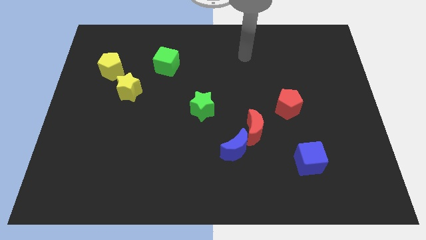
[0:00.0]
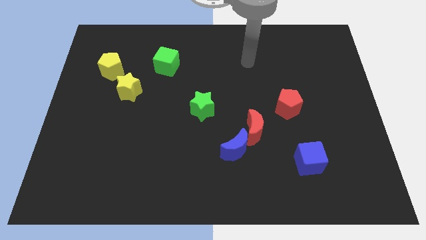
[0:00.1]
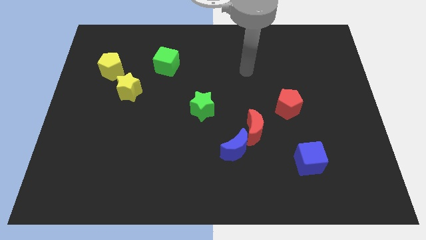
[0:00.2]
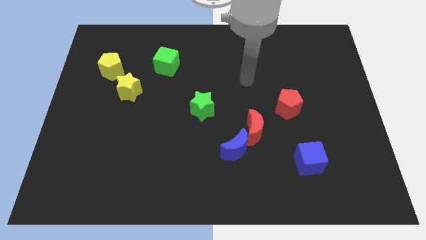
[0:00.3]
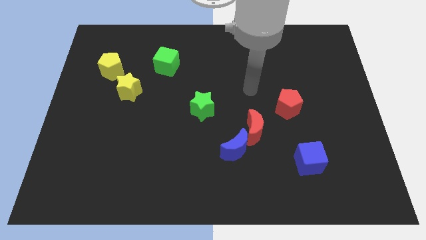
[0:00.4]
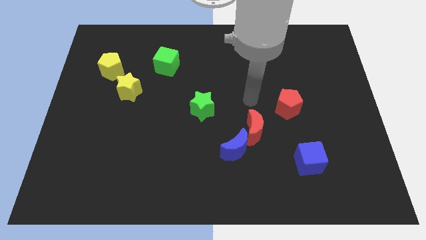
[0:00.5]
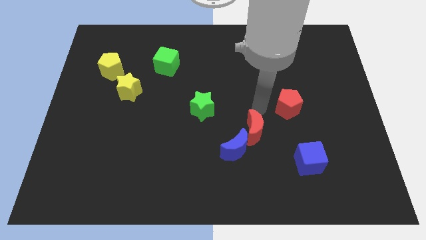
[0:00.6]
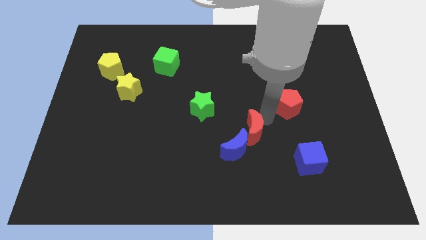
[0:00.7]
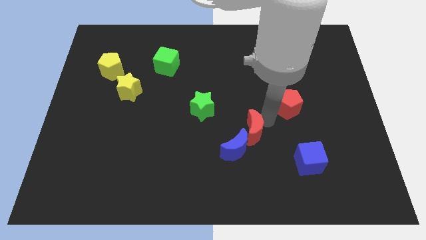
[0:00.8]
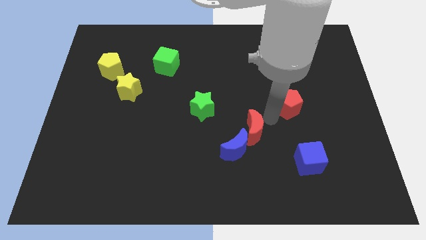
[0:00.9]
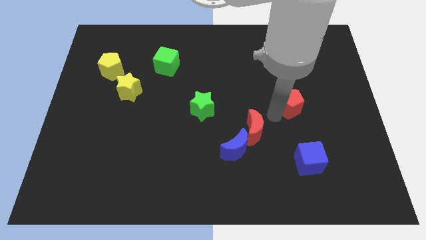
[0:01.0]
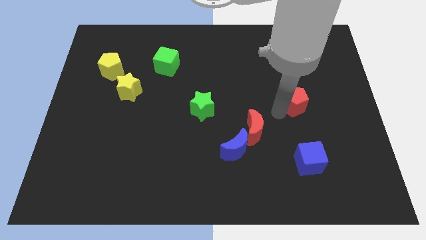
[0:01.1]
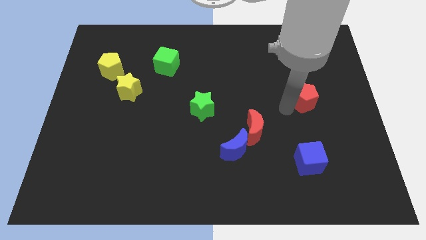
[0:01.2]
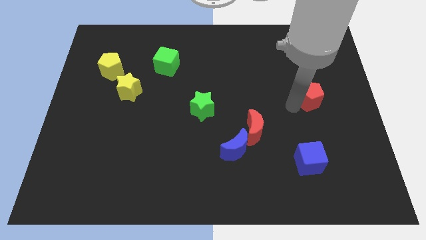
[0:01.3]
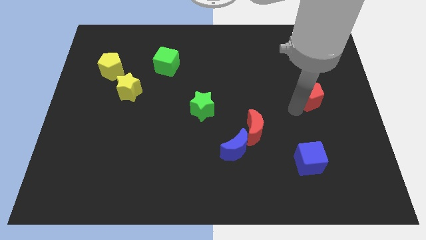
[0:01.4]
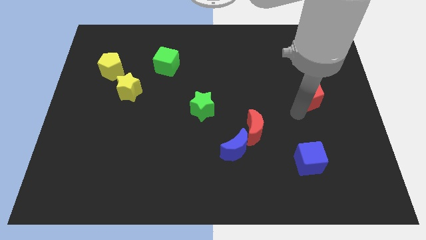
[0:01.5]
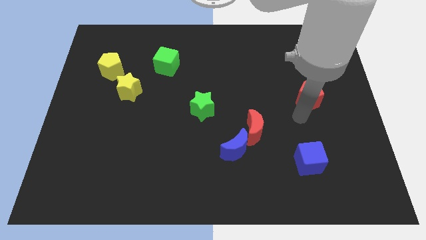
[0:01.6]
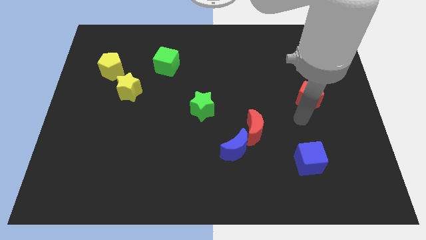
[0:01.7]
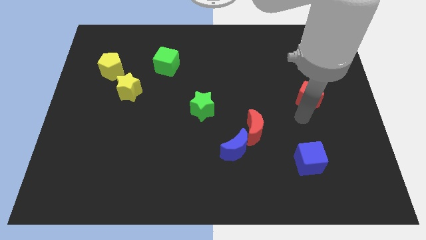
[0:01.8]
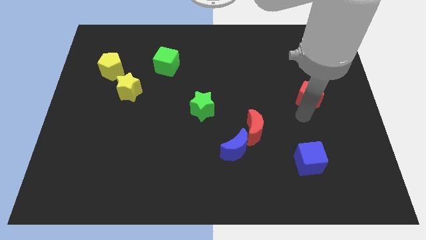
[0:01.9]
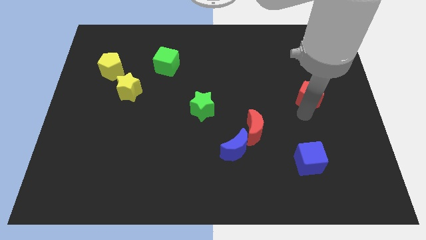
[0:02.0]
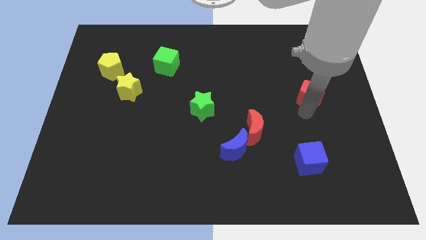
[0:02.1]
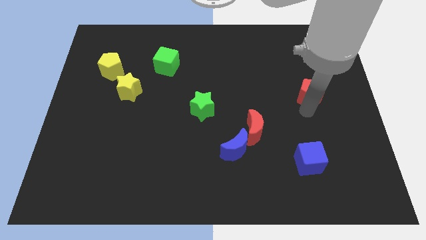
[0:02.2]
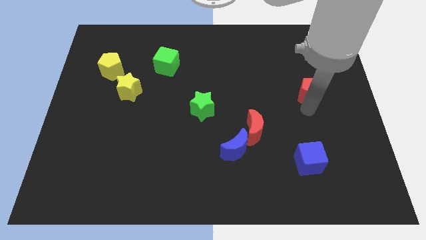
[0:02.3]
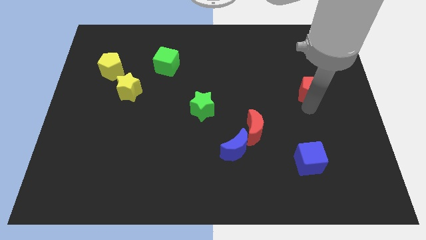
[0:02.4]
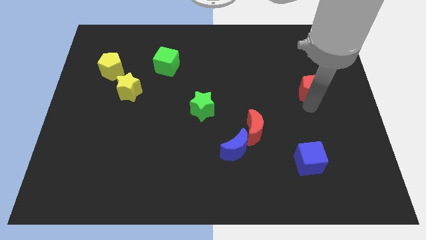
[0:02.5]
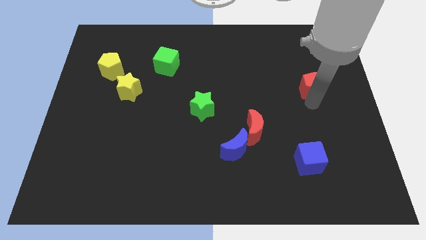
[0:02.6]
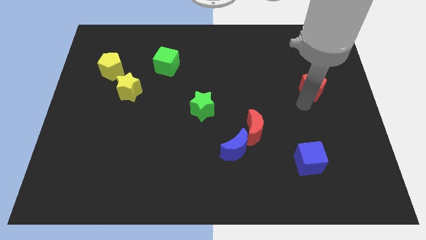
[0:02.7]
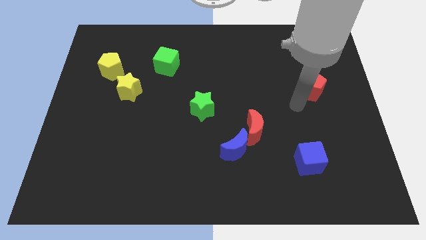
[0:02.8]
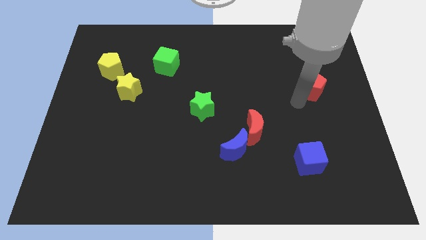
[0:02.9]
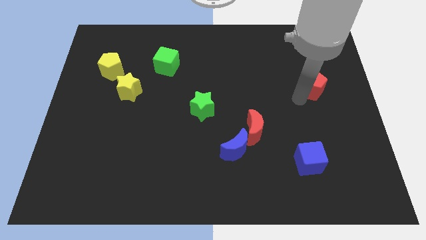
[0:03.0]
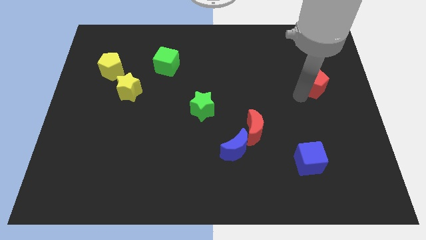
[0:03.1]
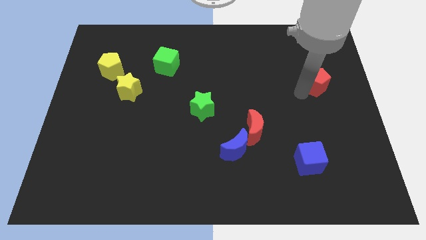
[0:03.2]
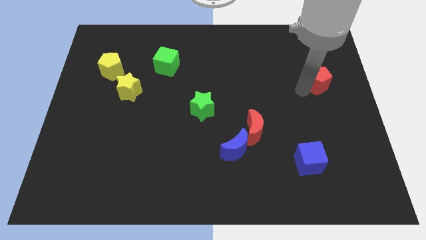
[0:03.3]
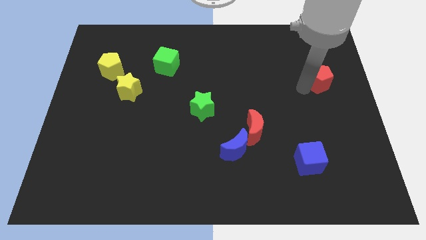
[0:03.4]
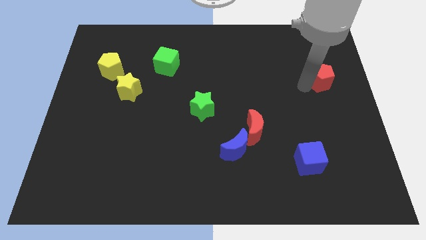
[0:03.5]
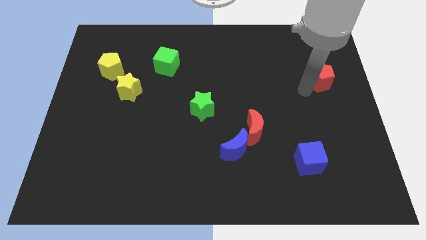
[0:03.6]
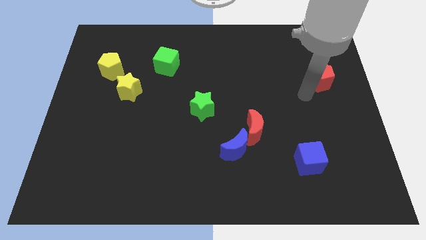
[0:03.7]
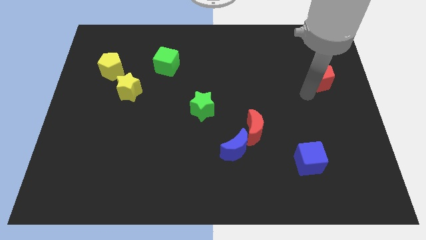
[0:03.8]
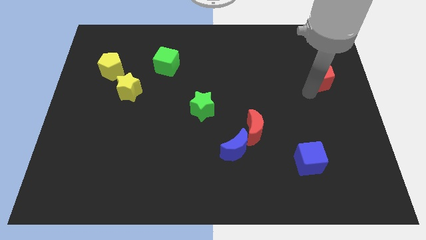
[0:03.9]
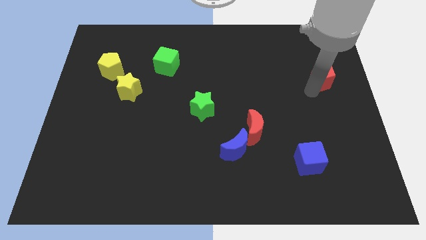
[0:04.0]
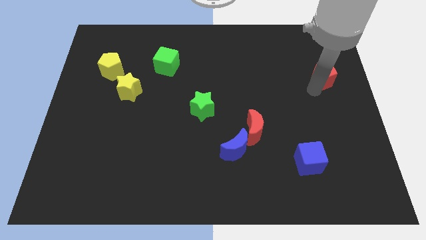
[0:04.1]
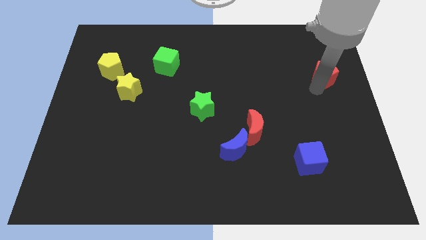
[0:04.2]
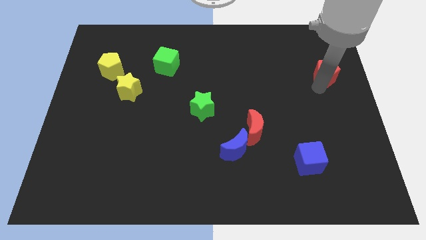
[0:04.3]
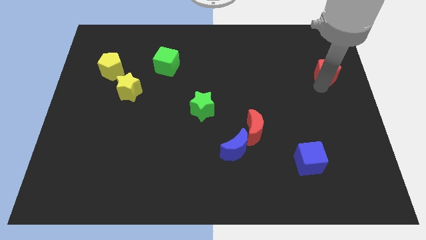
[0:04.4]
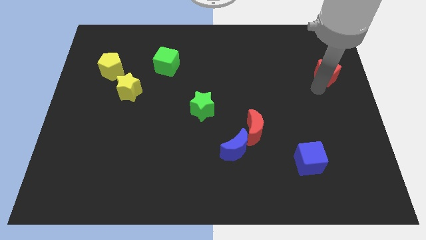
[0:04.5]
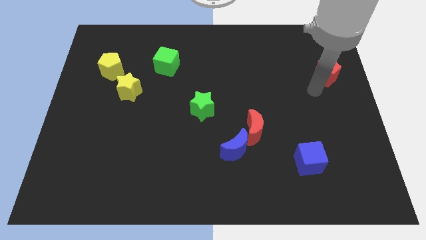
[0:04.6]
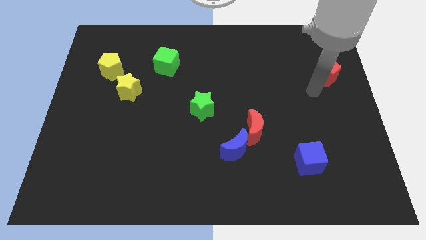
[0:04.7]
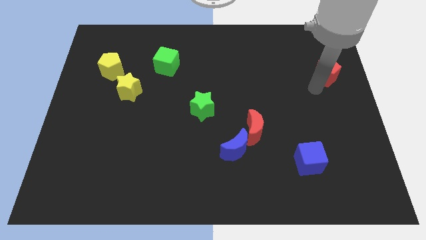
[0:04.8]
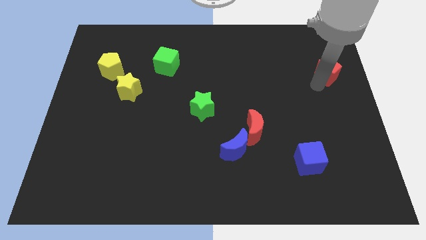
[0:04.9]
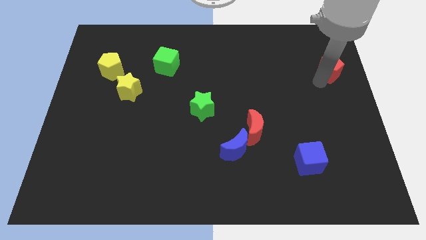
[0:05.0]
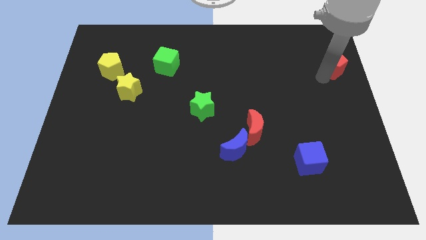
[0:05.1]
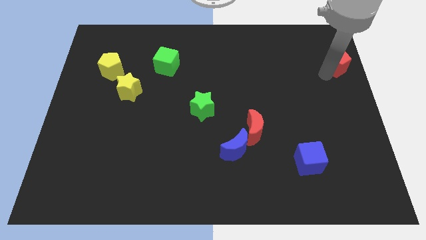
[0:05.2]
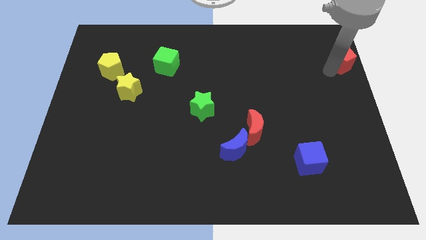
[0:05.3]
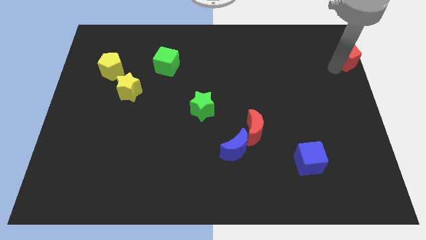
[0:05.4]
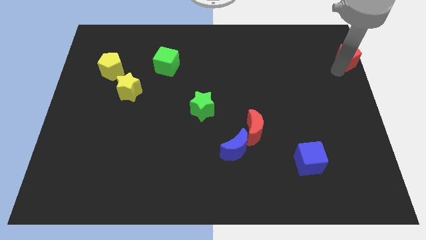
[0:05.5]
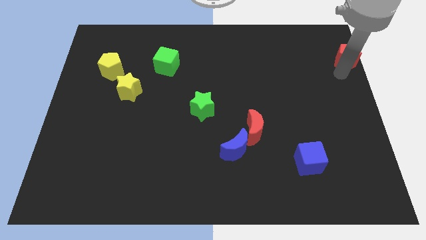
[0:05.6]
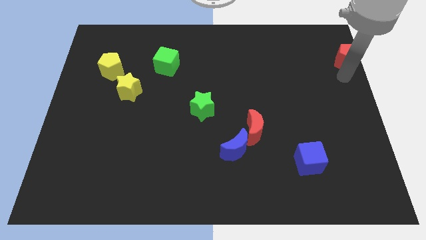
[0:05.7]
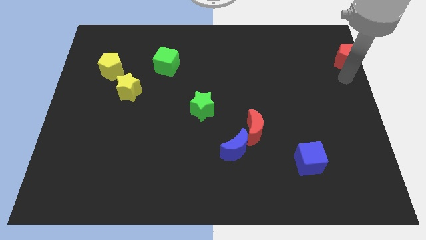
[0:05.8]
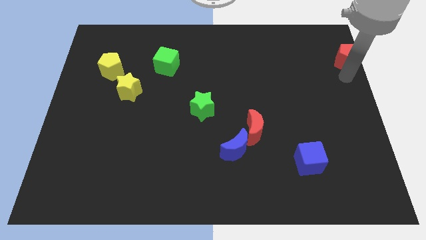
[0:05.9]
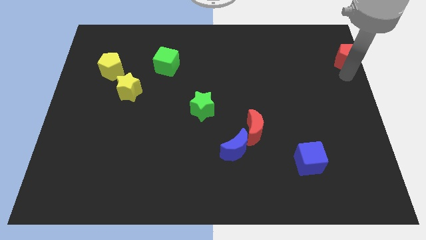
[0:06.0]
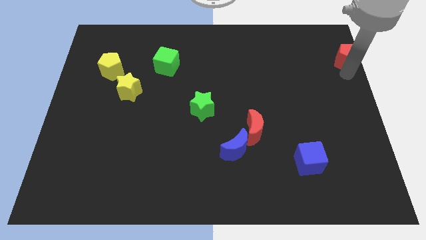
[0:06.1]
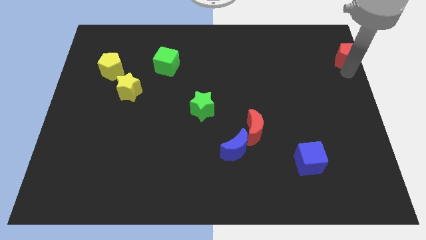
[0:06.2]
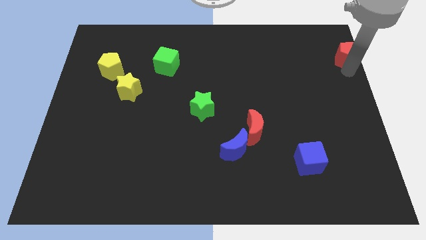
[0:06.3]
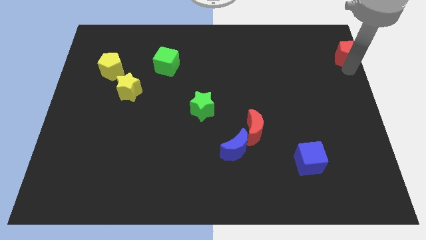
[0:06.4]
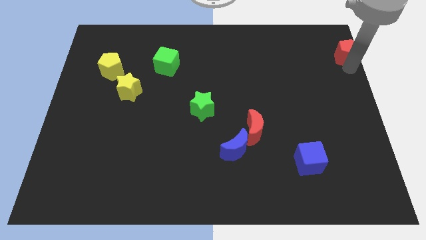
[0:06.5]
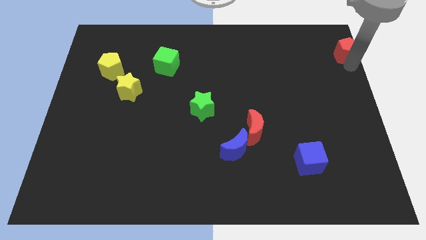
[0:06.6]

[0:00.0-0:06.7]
push the red pentagon to the top right corner
